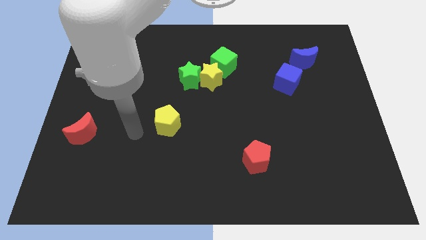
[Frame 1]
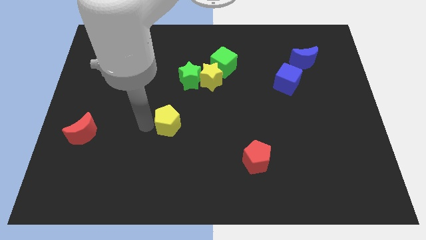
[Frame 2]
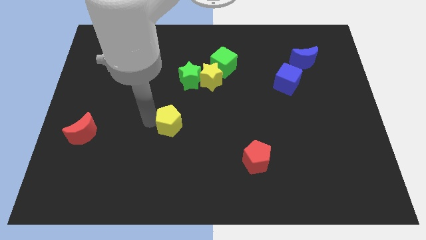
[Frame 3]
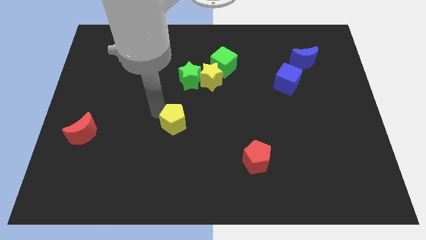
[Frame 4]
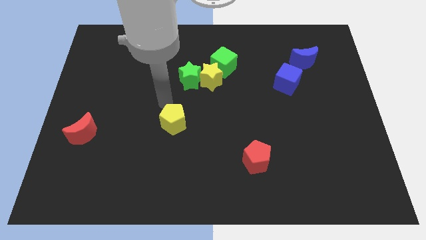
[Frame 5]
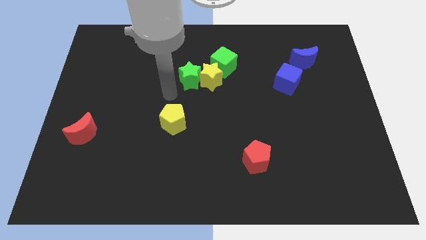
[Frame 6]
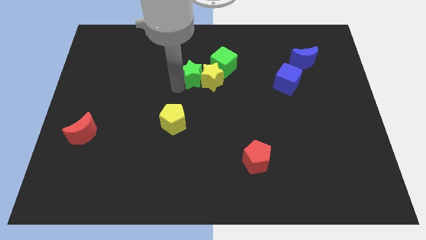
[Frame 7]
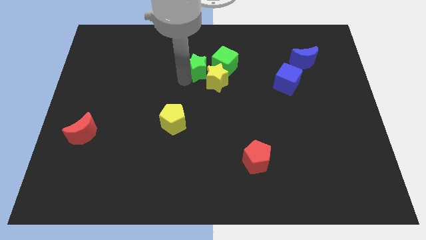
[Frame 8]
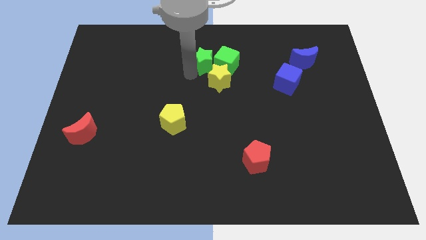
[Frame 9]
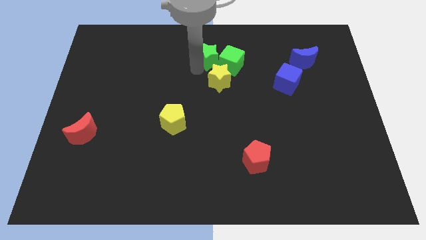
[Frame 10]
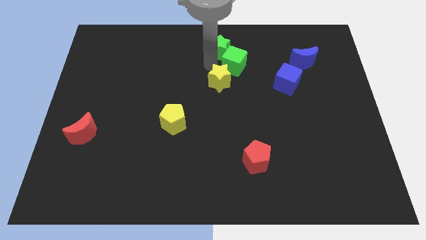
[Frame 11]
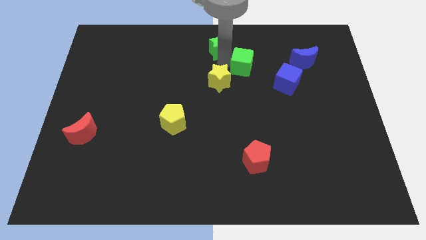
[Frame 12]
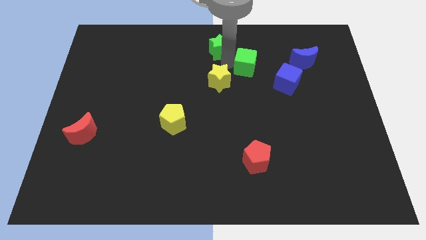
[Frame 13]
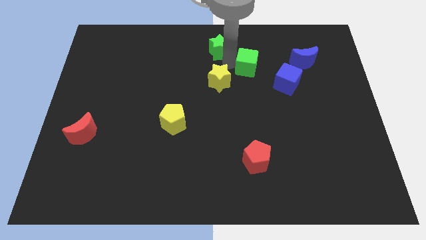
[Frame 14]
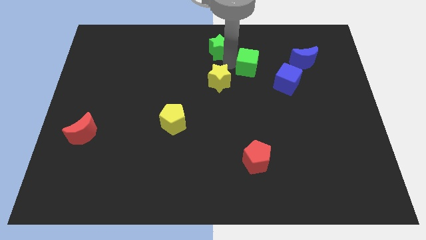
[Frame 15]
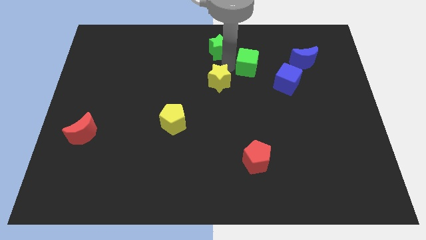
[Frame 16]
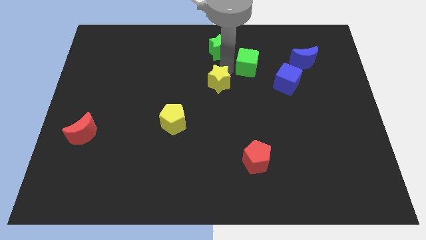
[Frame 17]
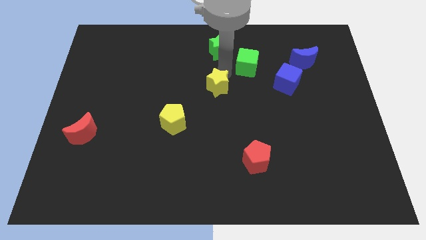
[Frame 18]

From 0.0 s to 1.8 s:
separate the yellow star from the green star and green cube

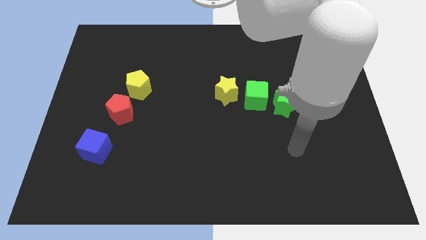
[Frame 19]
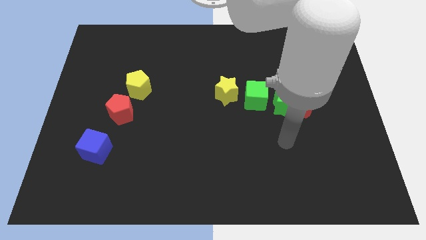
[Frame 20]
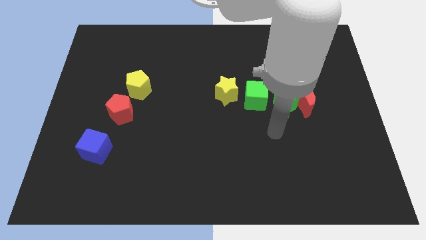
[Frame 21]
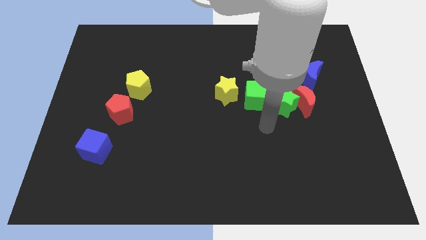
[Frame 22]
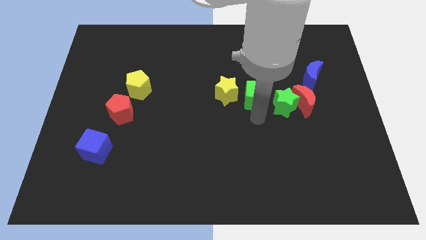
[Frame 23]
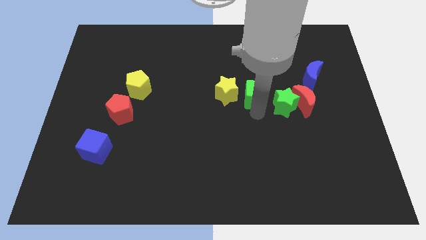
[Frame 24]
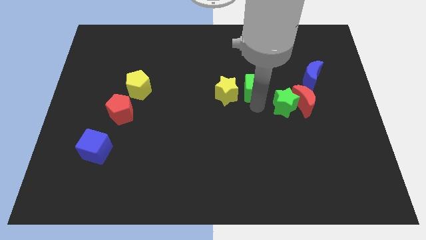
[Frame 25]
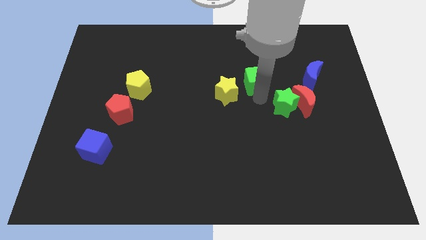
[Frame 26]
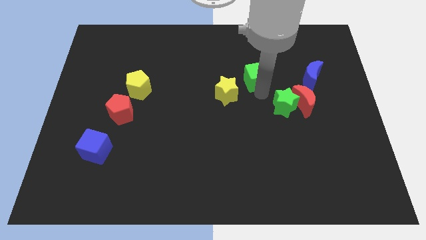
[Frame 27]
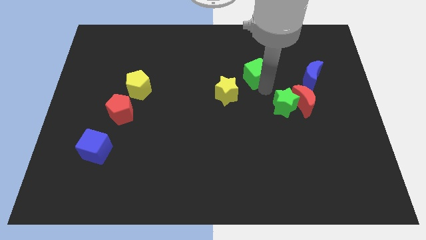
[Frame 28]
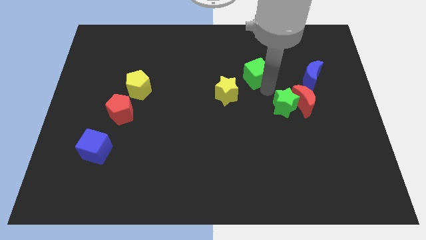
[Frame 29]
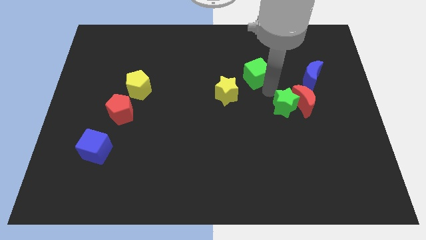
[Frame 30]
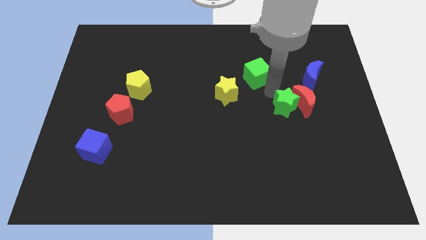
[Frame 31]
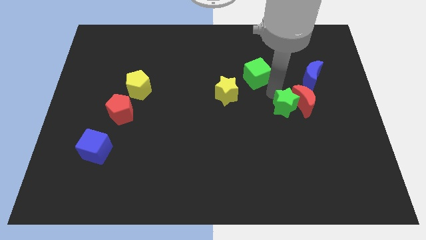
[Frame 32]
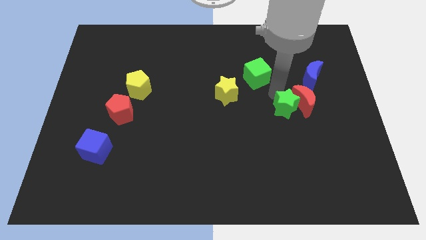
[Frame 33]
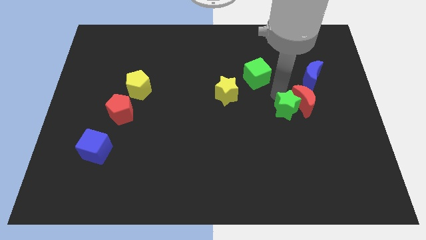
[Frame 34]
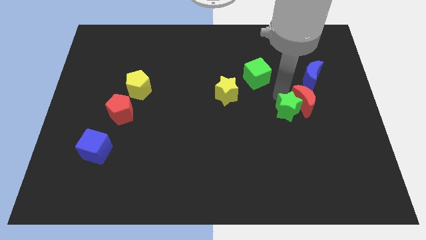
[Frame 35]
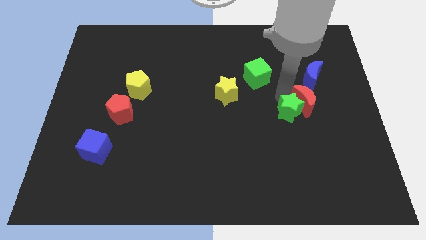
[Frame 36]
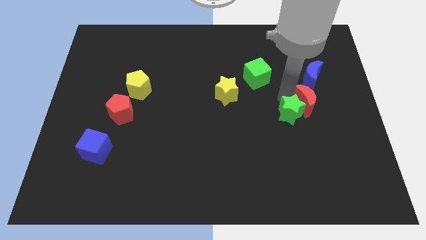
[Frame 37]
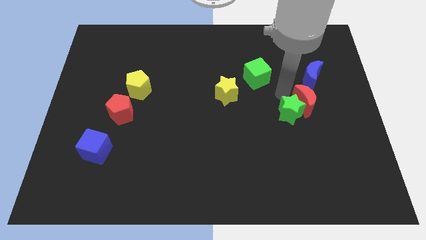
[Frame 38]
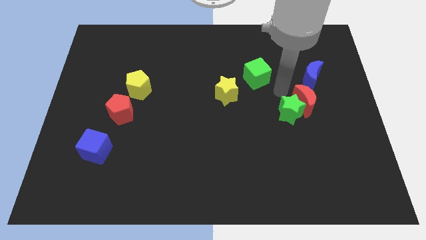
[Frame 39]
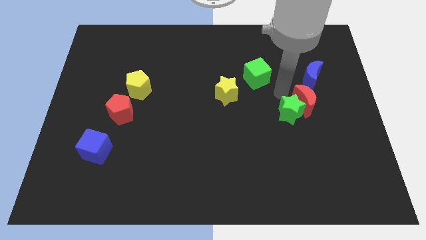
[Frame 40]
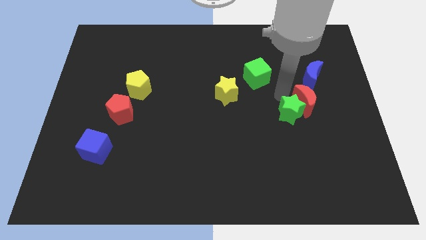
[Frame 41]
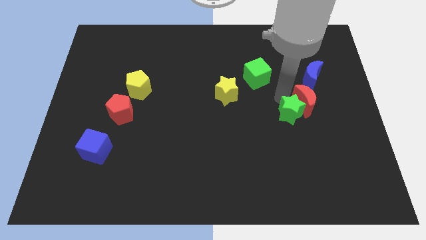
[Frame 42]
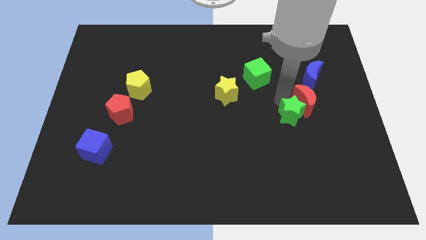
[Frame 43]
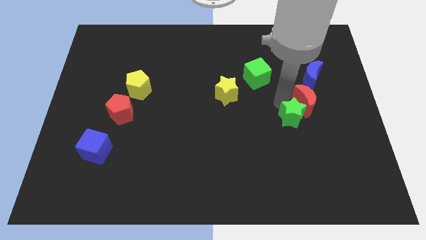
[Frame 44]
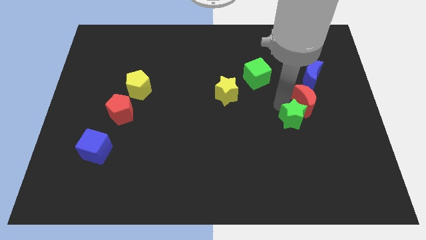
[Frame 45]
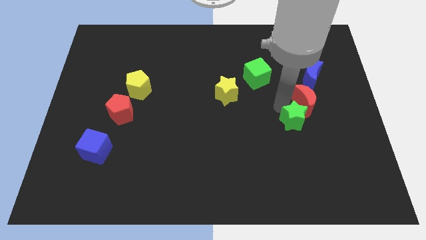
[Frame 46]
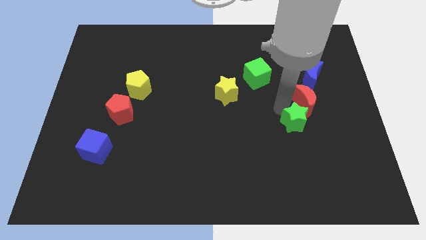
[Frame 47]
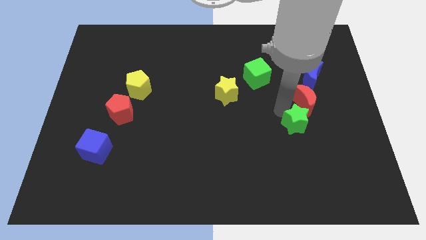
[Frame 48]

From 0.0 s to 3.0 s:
move the green star away from the red moon and green cube

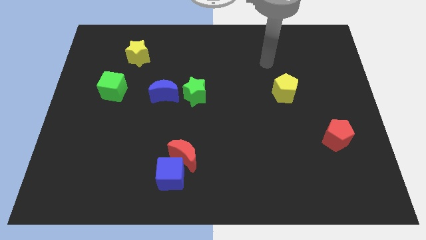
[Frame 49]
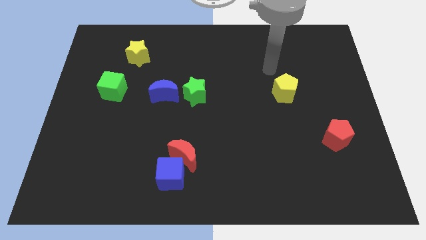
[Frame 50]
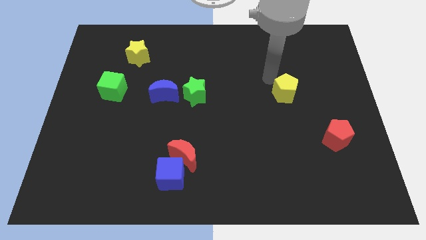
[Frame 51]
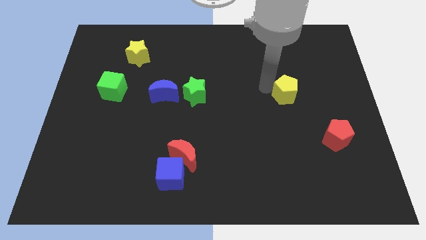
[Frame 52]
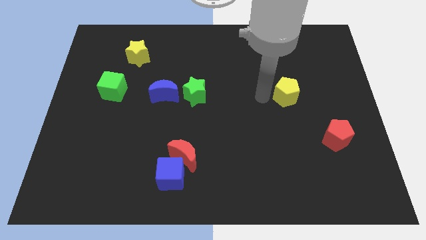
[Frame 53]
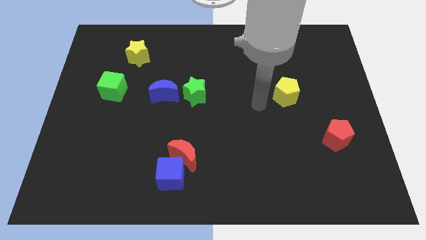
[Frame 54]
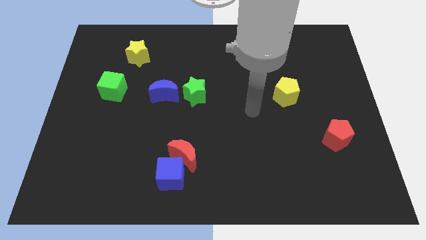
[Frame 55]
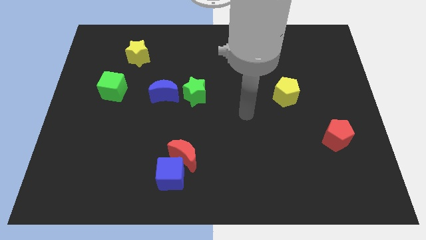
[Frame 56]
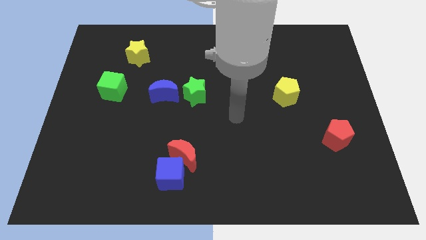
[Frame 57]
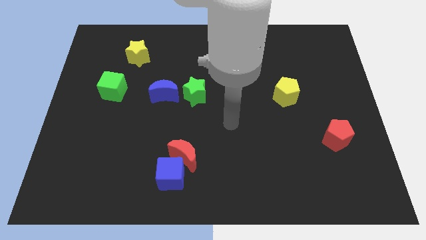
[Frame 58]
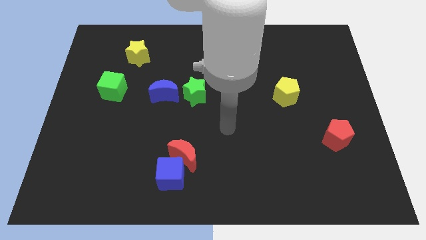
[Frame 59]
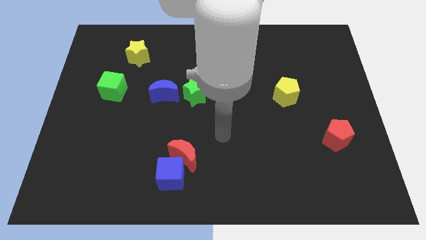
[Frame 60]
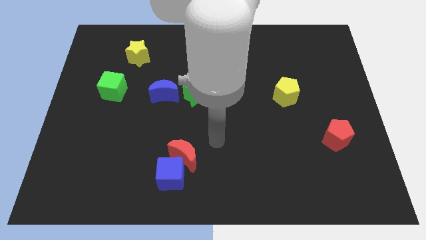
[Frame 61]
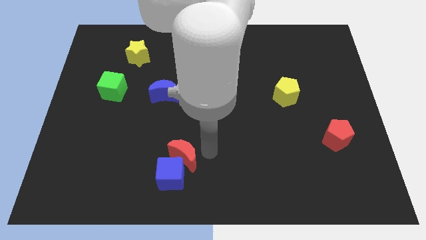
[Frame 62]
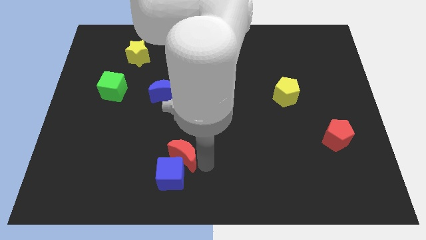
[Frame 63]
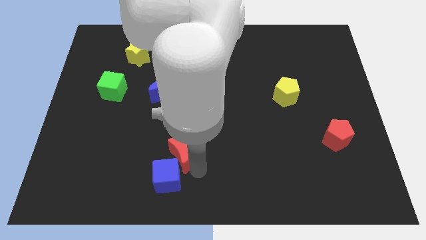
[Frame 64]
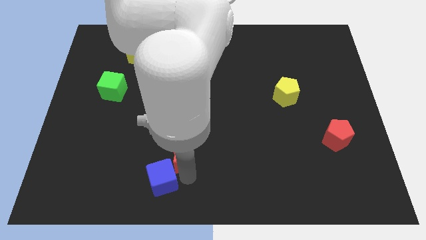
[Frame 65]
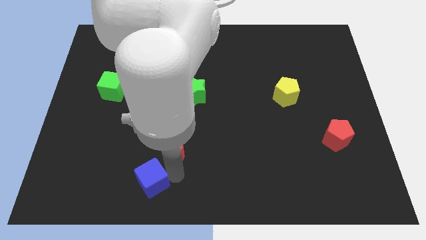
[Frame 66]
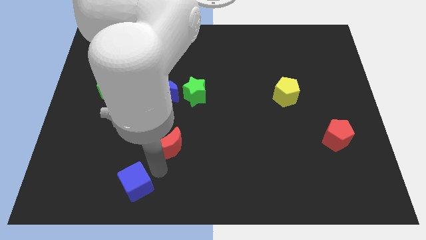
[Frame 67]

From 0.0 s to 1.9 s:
separate the red moon from the blue cube

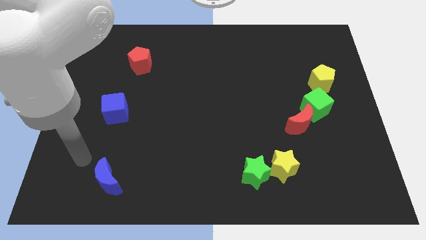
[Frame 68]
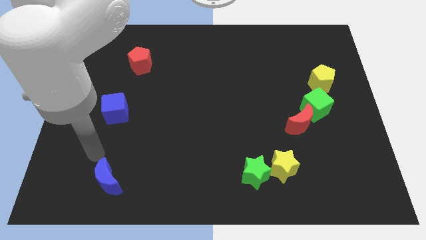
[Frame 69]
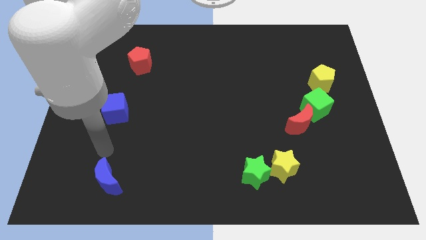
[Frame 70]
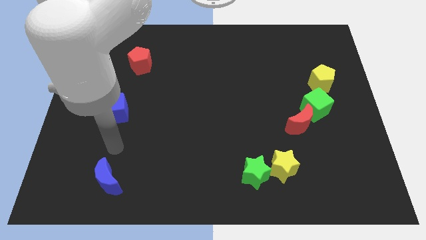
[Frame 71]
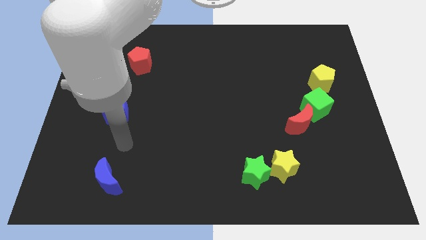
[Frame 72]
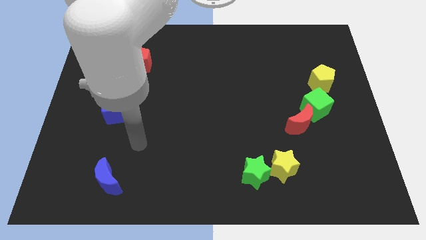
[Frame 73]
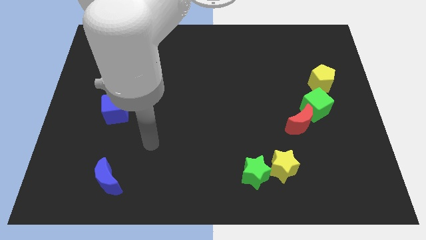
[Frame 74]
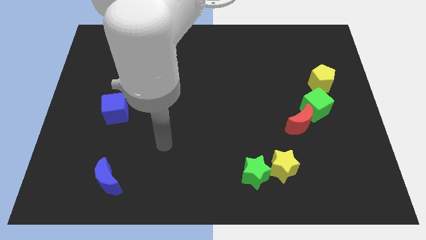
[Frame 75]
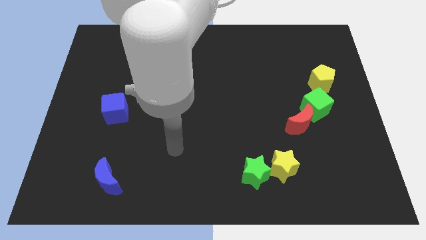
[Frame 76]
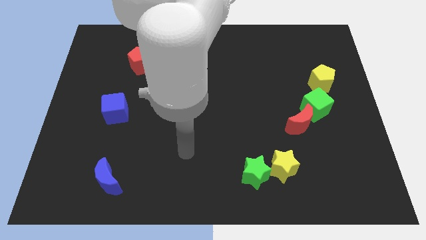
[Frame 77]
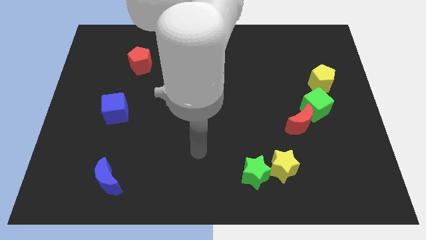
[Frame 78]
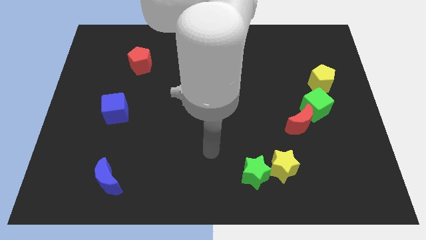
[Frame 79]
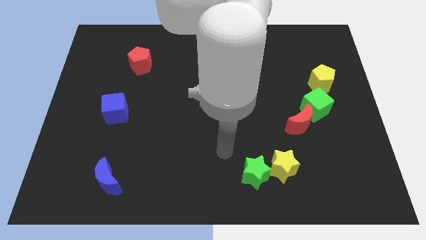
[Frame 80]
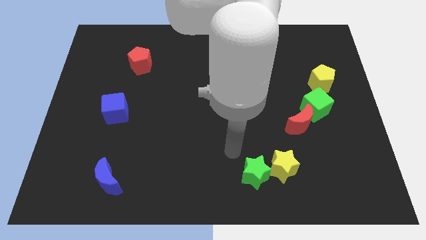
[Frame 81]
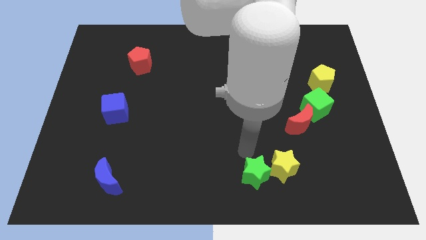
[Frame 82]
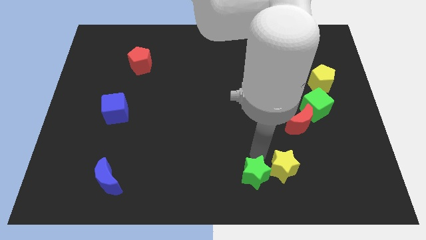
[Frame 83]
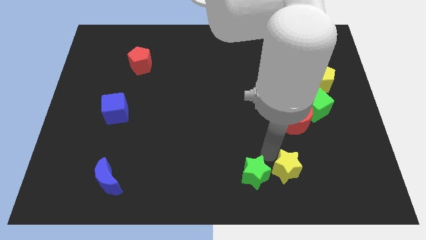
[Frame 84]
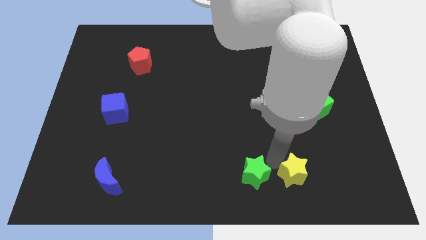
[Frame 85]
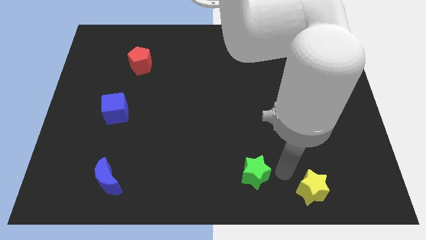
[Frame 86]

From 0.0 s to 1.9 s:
move the green star away from the yellow star

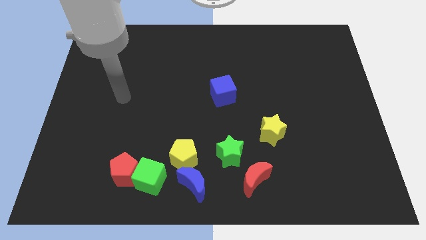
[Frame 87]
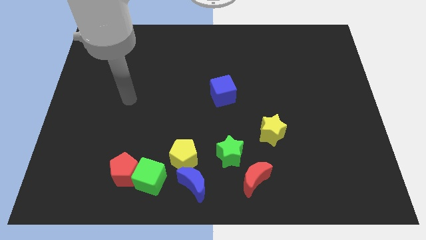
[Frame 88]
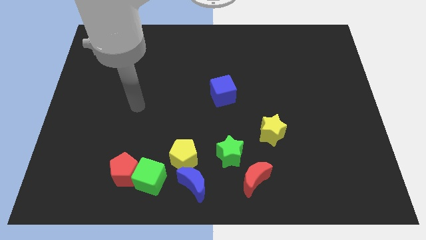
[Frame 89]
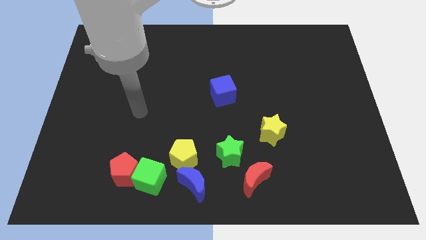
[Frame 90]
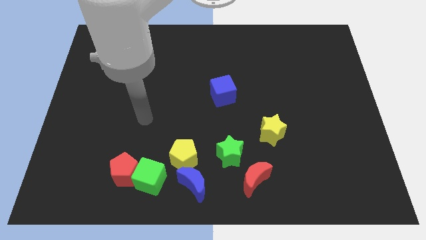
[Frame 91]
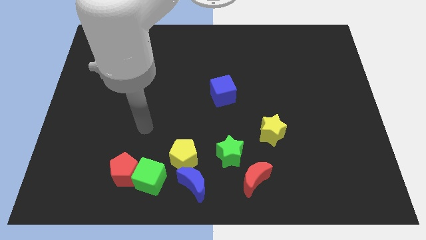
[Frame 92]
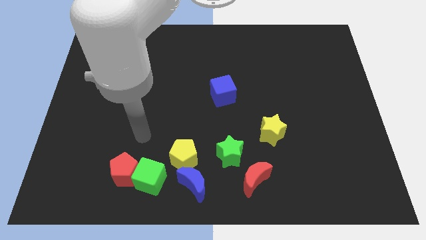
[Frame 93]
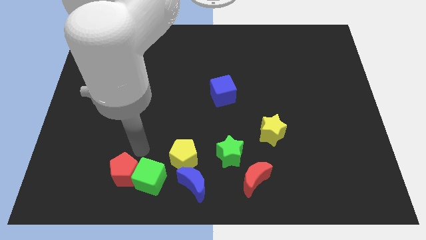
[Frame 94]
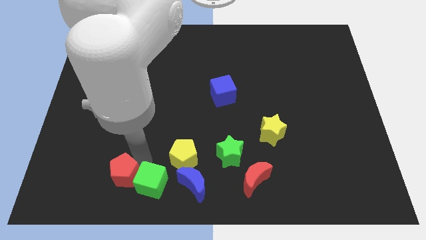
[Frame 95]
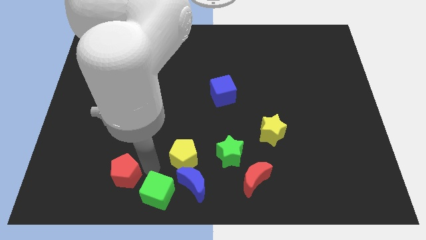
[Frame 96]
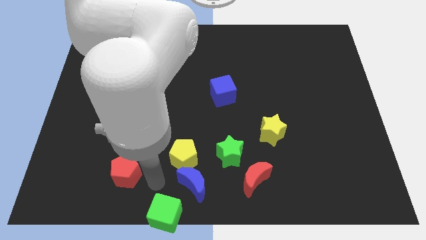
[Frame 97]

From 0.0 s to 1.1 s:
move the red pentagon away from the green cube
